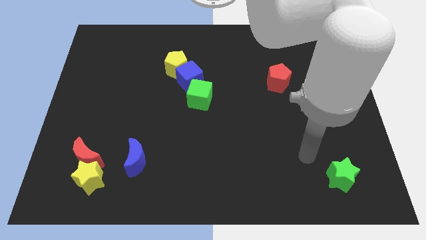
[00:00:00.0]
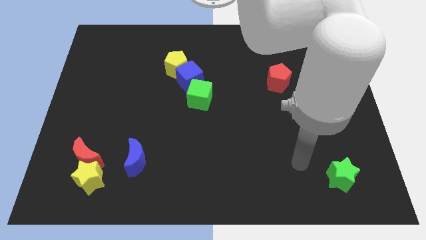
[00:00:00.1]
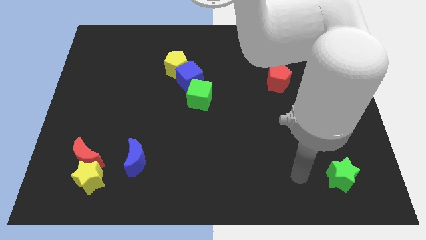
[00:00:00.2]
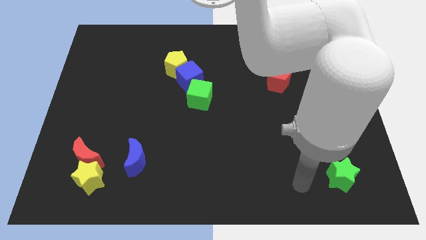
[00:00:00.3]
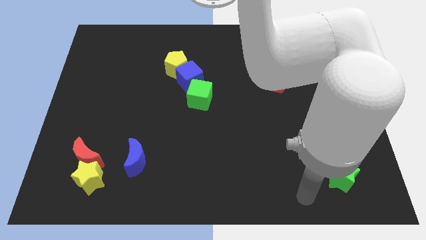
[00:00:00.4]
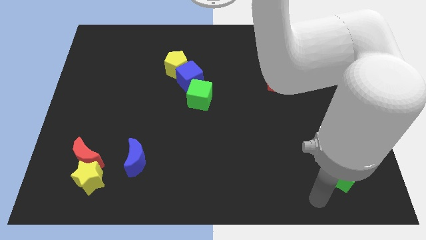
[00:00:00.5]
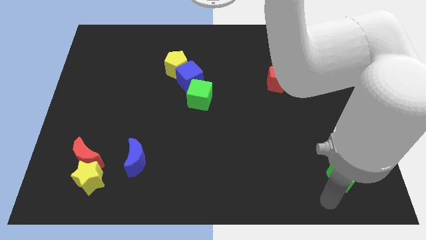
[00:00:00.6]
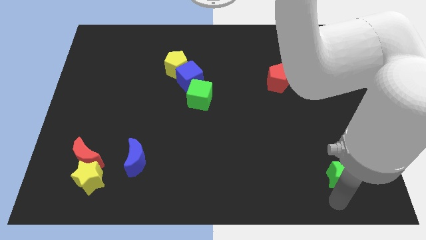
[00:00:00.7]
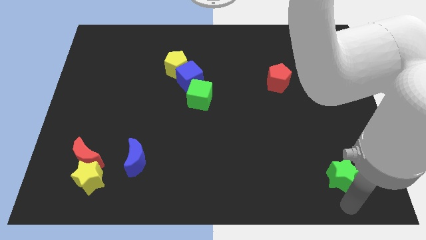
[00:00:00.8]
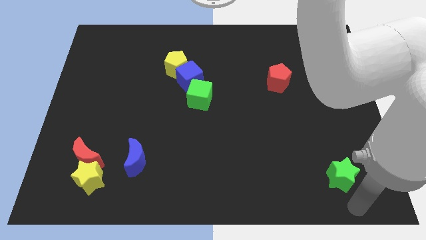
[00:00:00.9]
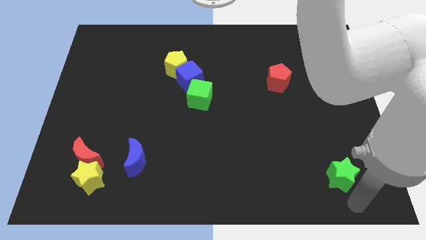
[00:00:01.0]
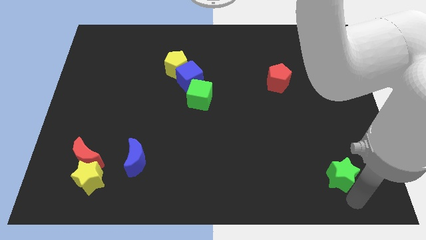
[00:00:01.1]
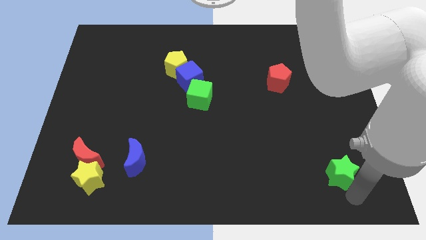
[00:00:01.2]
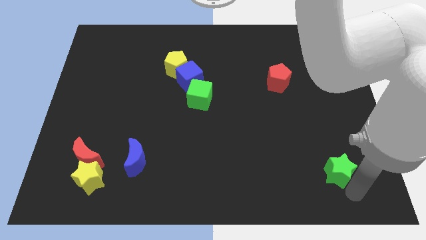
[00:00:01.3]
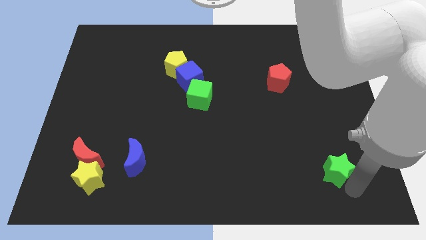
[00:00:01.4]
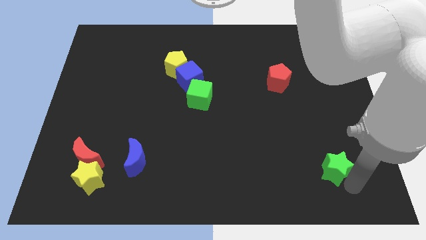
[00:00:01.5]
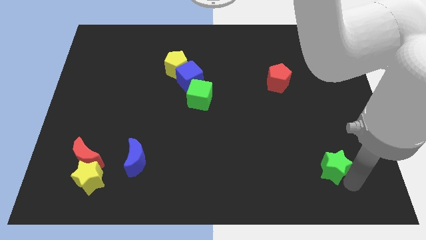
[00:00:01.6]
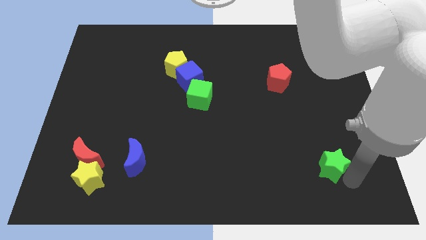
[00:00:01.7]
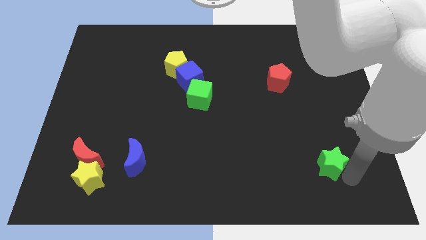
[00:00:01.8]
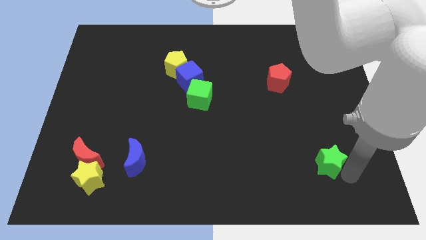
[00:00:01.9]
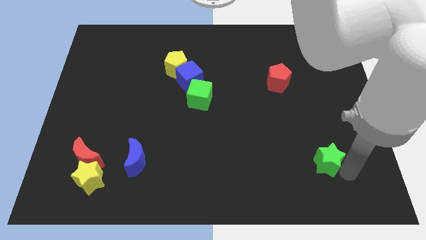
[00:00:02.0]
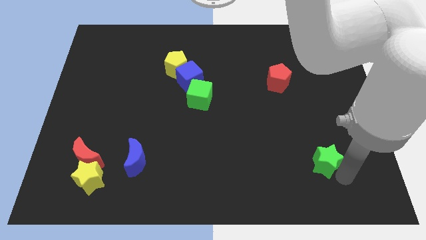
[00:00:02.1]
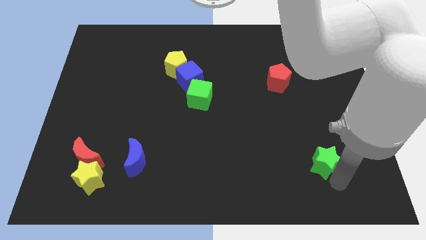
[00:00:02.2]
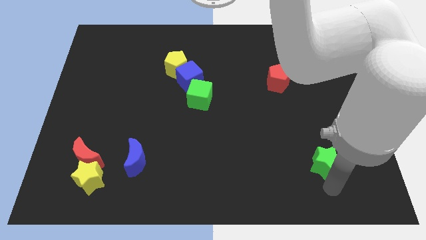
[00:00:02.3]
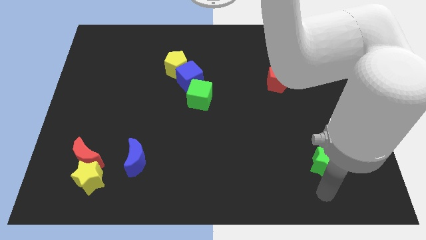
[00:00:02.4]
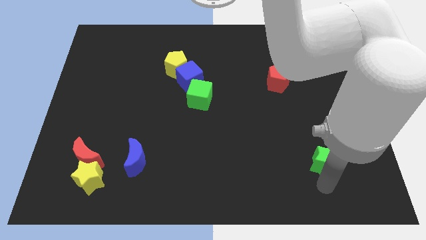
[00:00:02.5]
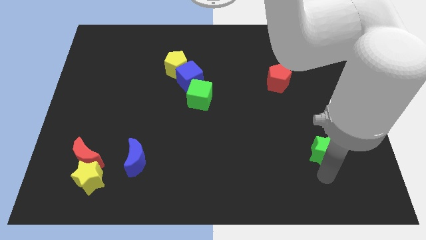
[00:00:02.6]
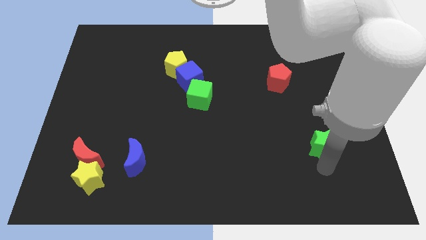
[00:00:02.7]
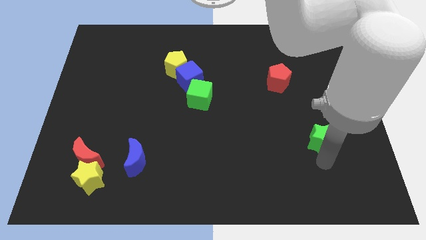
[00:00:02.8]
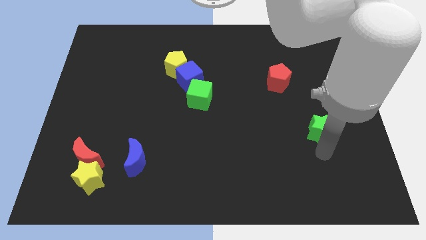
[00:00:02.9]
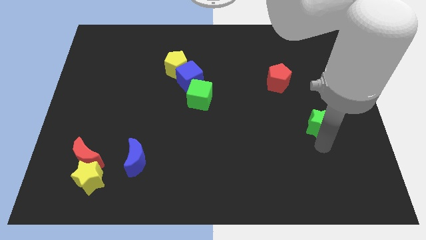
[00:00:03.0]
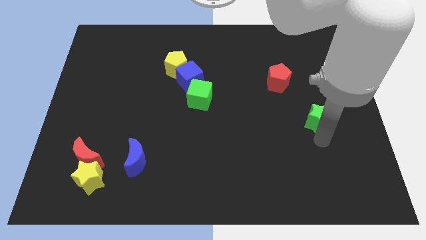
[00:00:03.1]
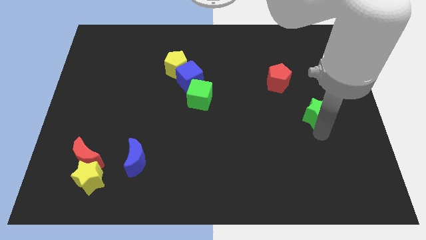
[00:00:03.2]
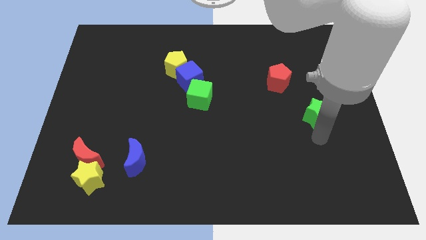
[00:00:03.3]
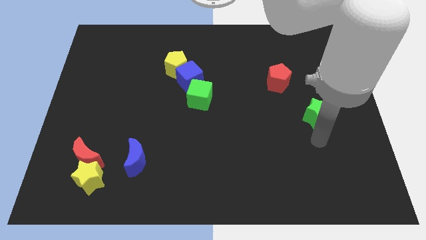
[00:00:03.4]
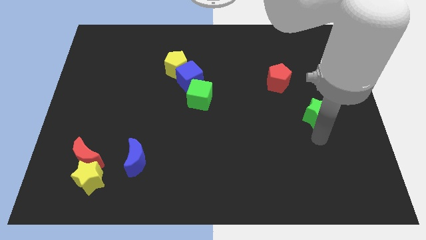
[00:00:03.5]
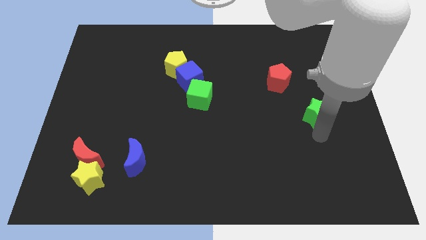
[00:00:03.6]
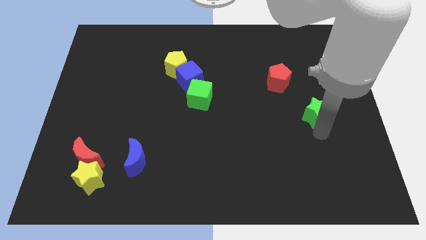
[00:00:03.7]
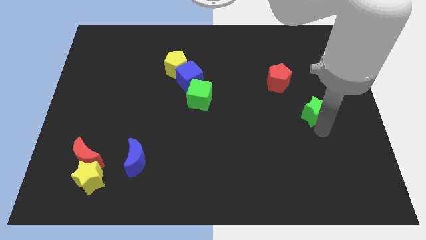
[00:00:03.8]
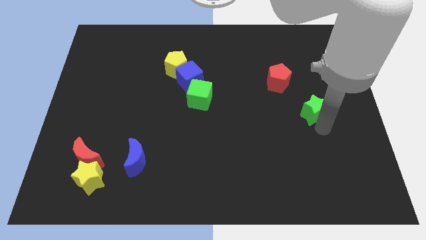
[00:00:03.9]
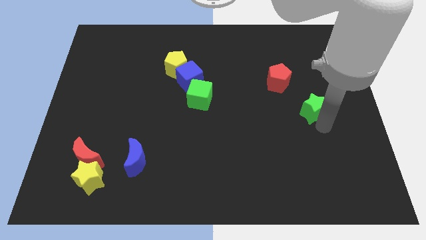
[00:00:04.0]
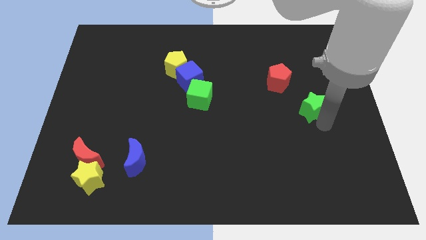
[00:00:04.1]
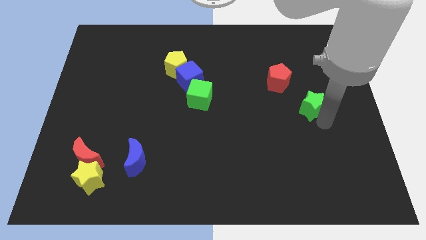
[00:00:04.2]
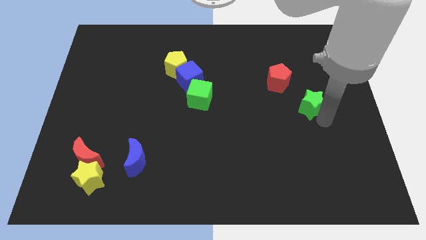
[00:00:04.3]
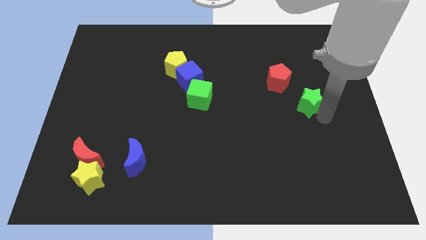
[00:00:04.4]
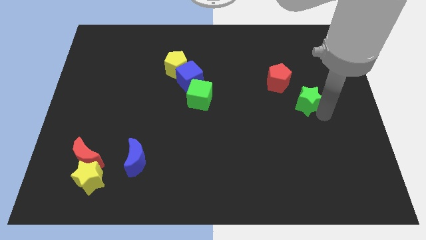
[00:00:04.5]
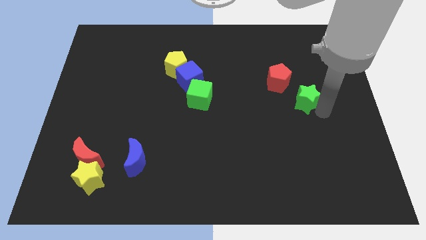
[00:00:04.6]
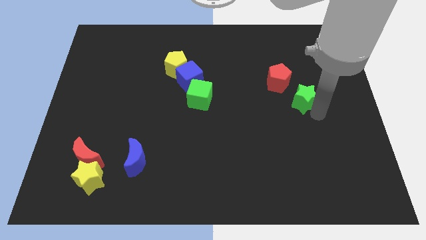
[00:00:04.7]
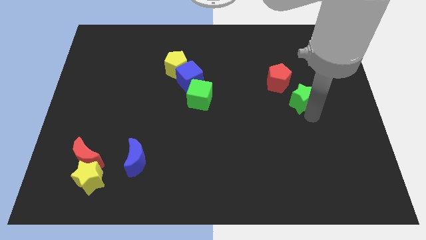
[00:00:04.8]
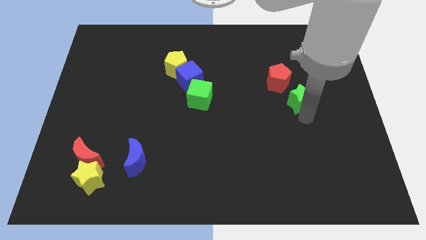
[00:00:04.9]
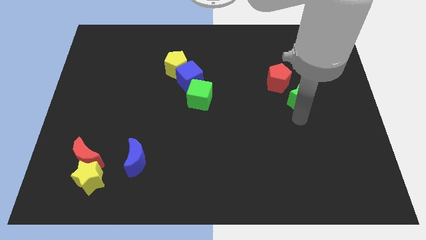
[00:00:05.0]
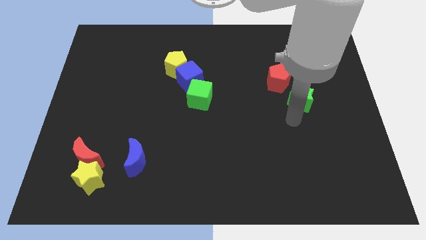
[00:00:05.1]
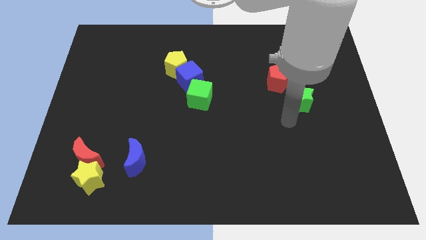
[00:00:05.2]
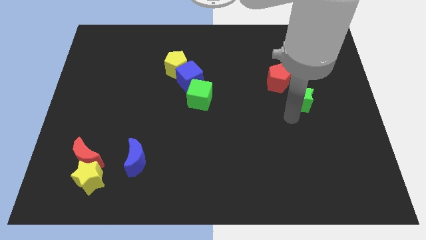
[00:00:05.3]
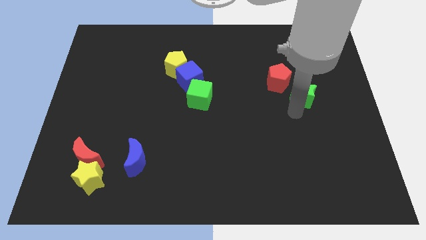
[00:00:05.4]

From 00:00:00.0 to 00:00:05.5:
push the green star upwards

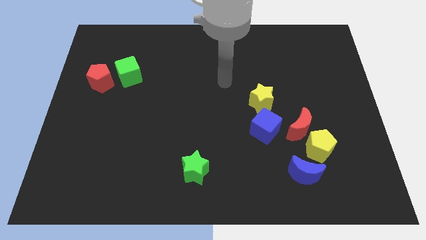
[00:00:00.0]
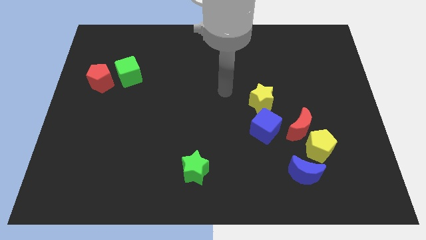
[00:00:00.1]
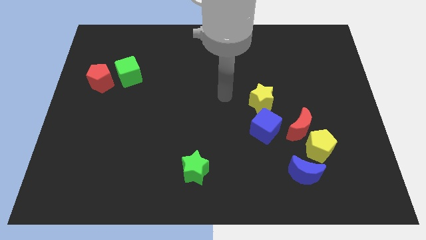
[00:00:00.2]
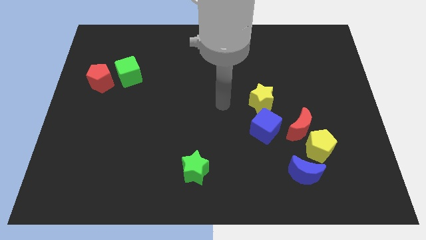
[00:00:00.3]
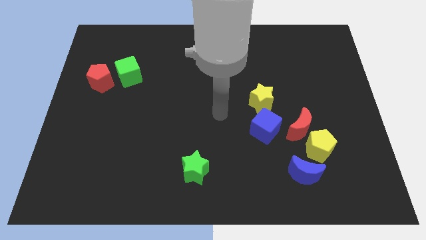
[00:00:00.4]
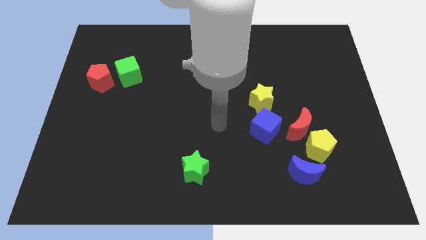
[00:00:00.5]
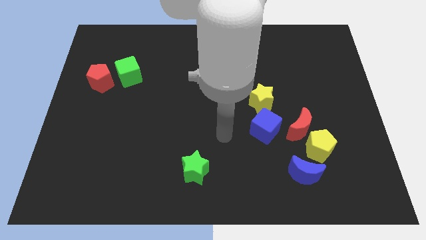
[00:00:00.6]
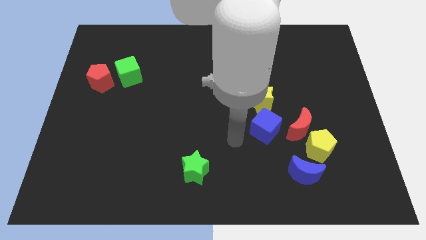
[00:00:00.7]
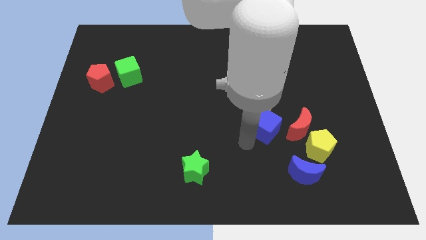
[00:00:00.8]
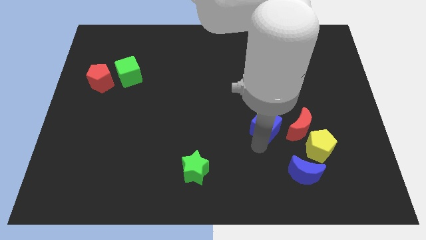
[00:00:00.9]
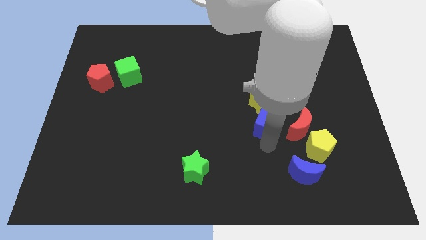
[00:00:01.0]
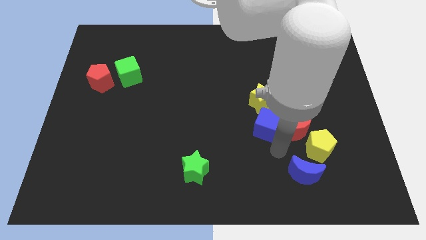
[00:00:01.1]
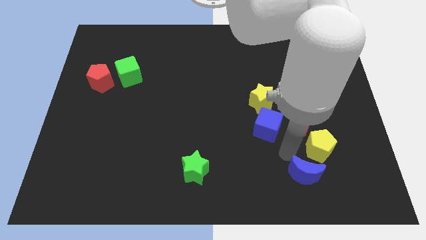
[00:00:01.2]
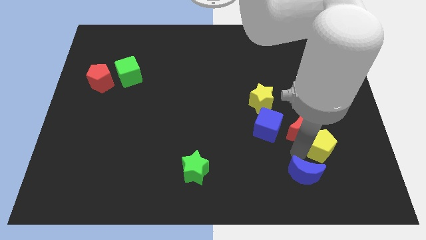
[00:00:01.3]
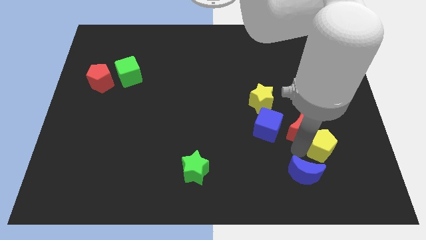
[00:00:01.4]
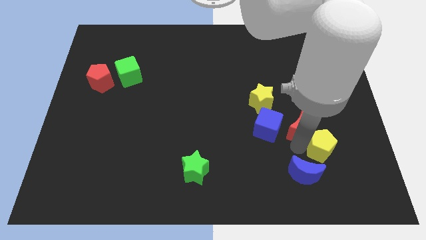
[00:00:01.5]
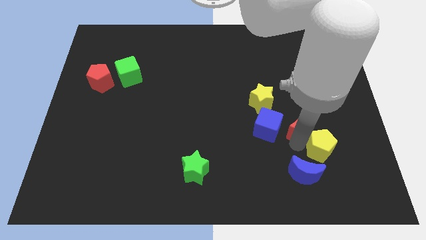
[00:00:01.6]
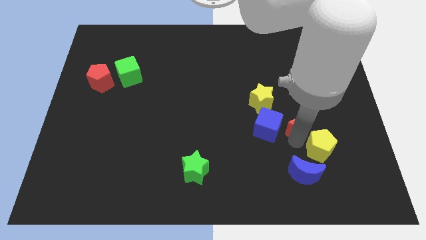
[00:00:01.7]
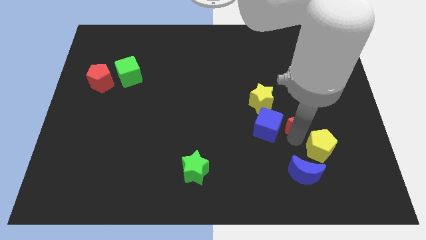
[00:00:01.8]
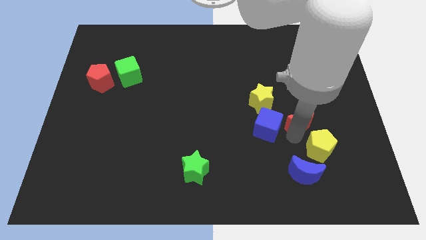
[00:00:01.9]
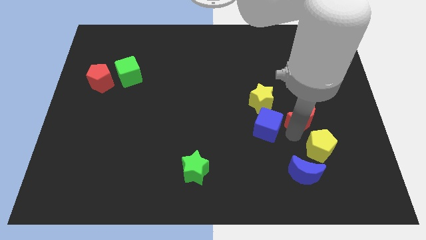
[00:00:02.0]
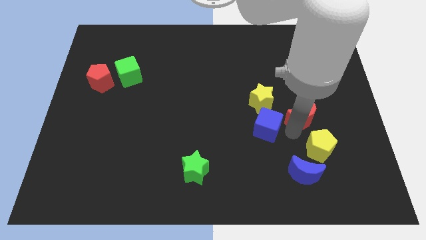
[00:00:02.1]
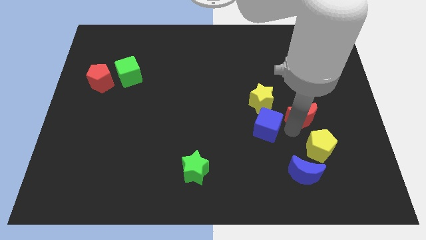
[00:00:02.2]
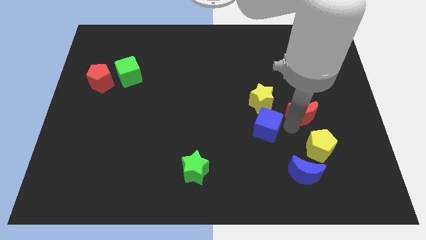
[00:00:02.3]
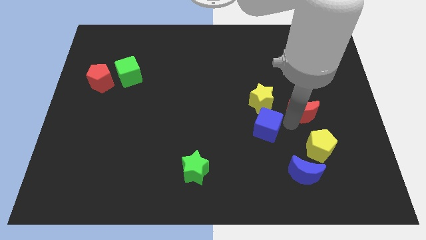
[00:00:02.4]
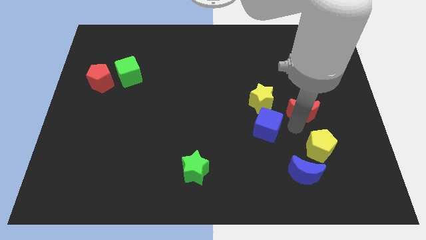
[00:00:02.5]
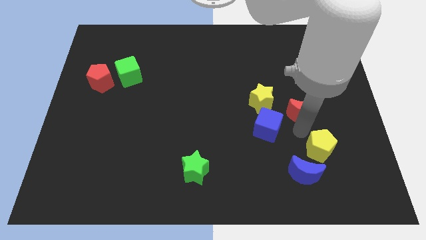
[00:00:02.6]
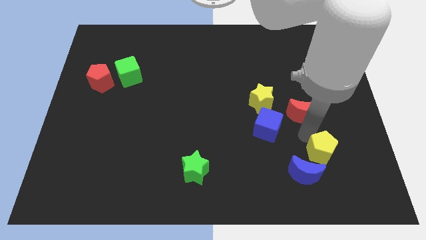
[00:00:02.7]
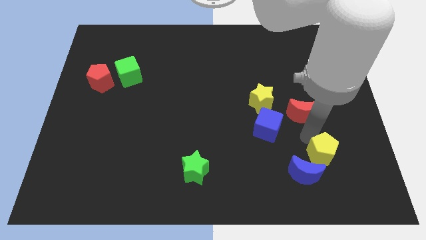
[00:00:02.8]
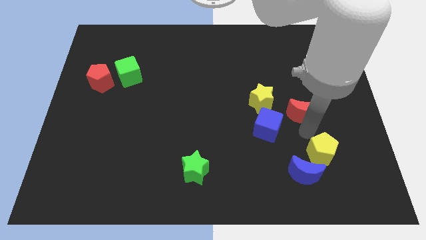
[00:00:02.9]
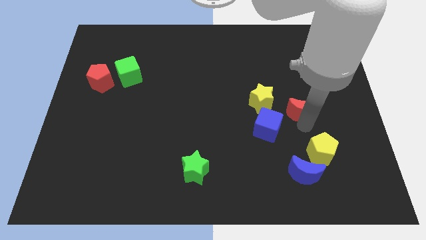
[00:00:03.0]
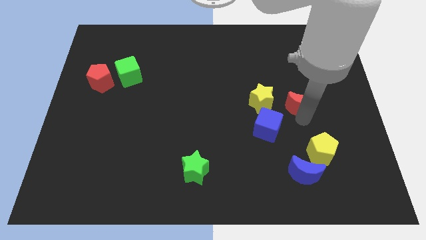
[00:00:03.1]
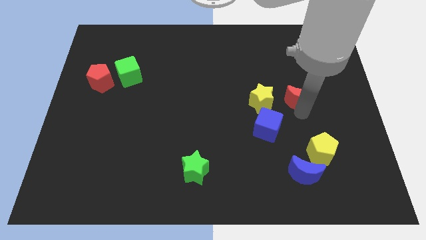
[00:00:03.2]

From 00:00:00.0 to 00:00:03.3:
slightly move the red moon upwards
